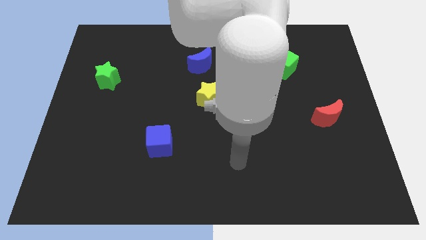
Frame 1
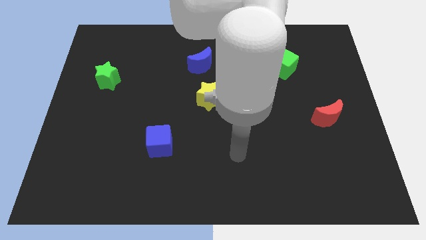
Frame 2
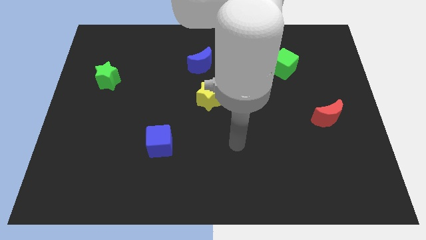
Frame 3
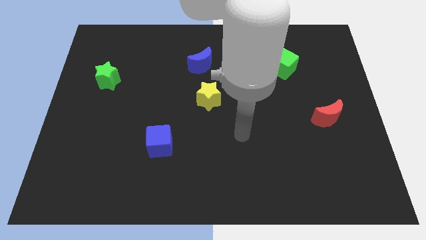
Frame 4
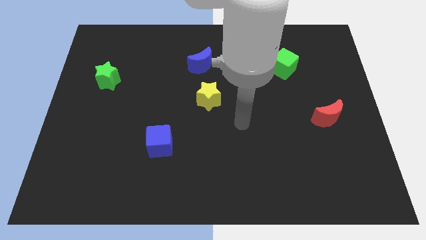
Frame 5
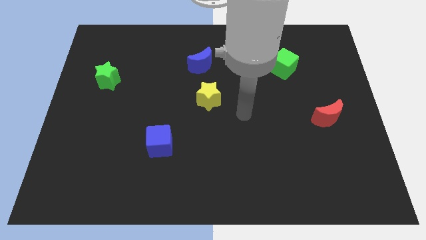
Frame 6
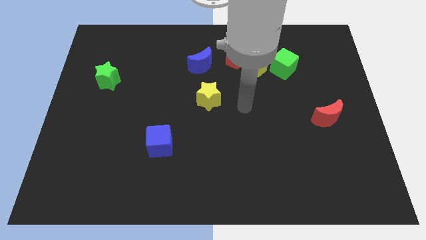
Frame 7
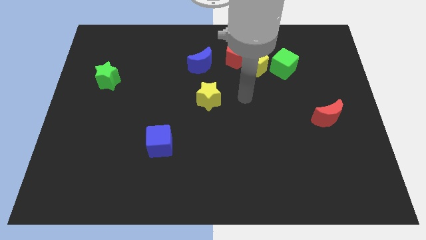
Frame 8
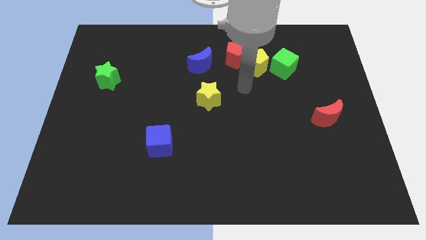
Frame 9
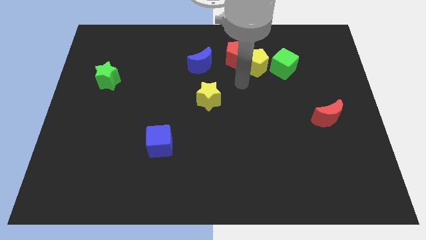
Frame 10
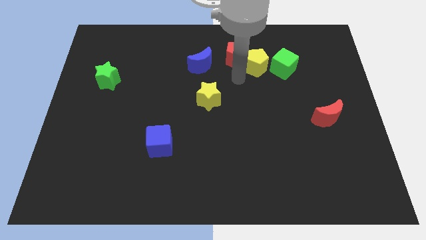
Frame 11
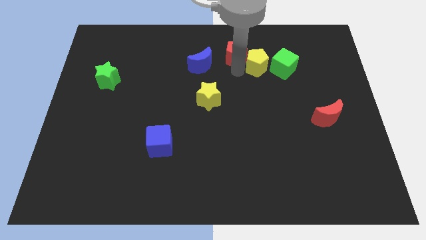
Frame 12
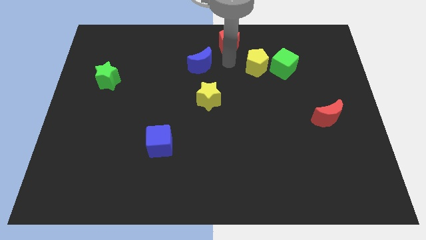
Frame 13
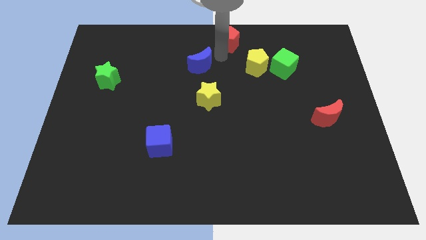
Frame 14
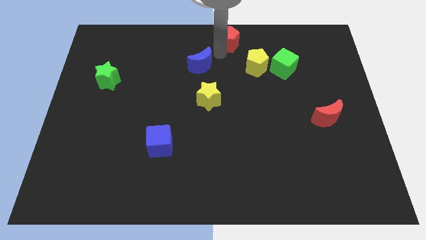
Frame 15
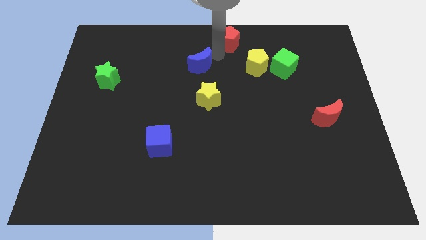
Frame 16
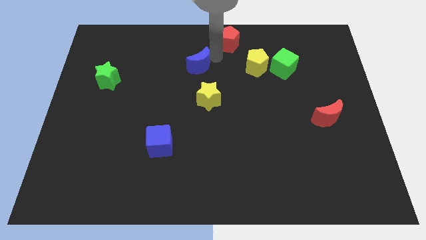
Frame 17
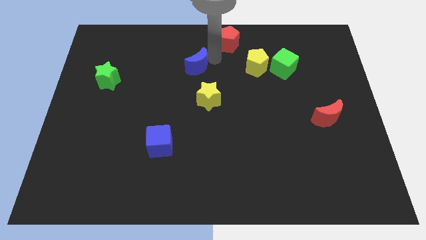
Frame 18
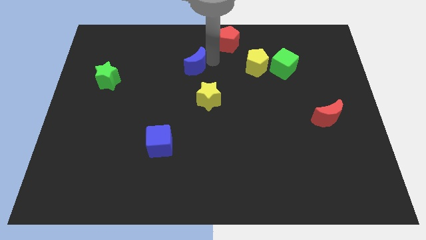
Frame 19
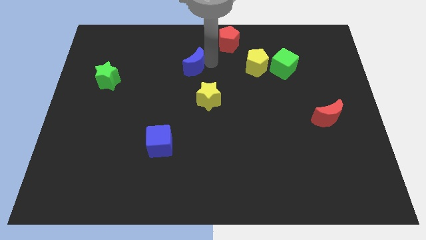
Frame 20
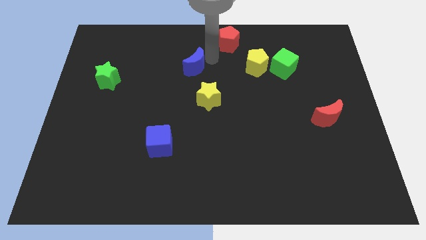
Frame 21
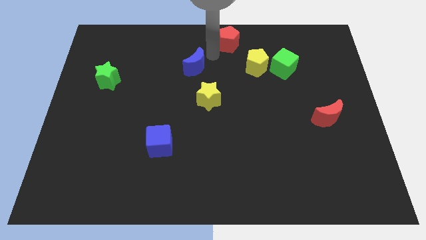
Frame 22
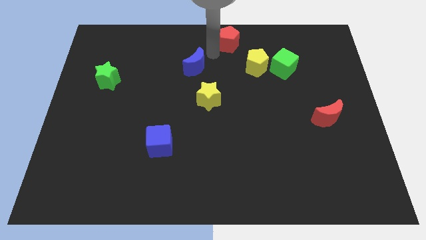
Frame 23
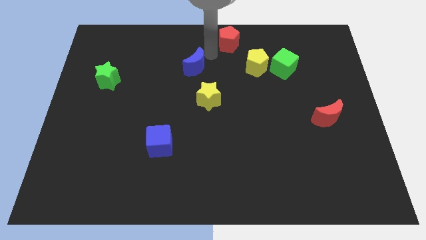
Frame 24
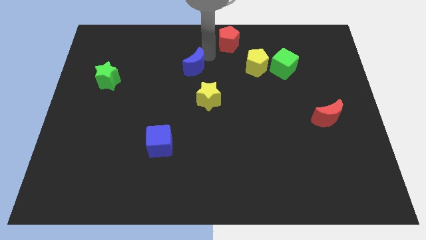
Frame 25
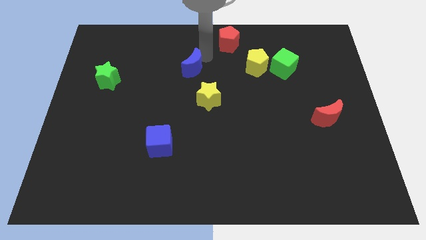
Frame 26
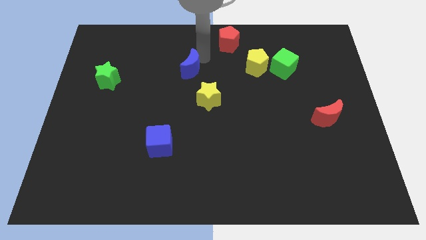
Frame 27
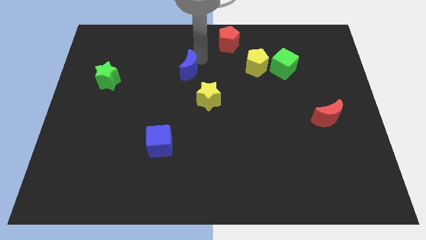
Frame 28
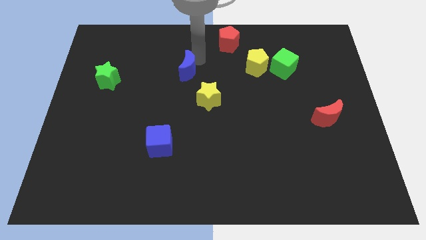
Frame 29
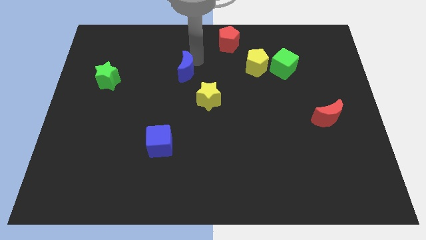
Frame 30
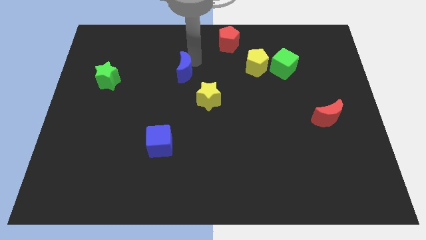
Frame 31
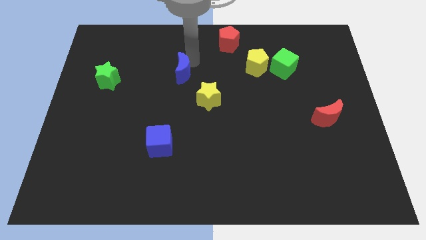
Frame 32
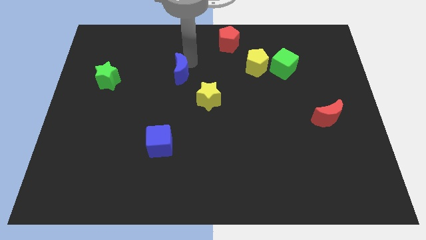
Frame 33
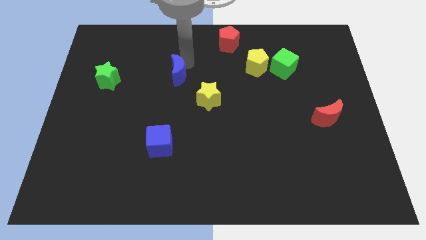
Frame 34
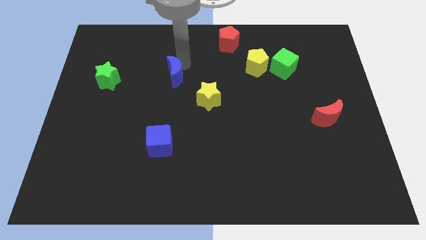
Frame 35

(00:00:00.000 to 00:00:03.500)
slide the blue moon downwards and then left a little bit

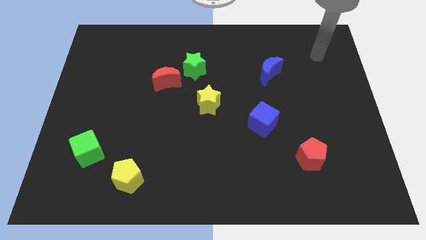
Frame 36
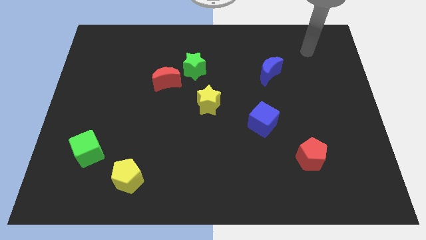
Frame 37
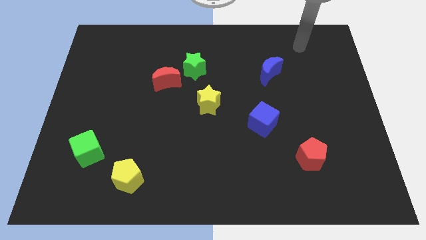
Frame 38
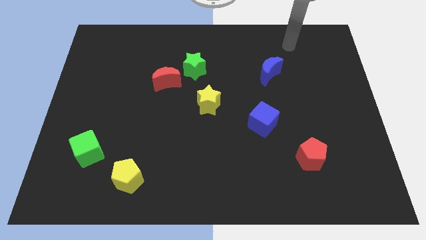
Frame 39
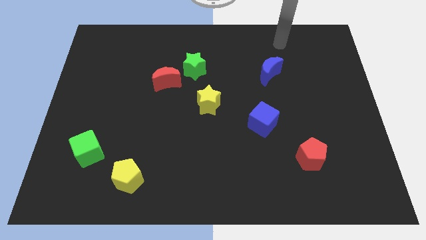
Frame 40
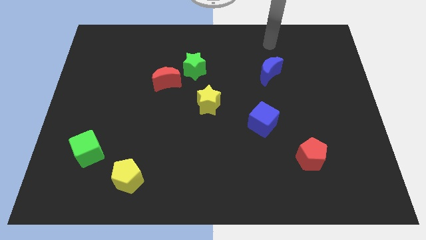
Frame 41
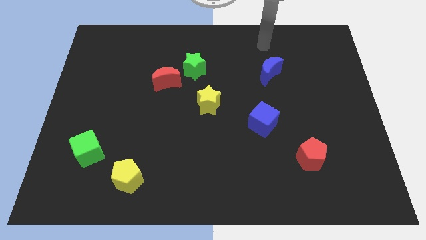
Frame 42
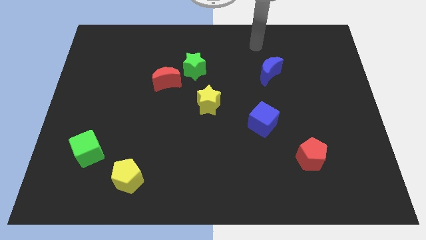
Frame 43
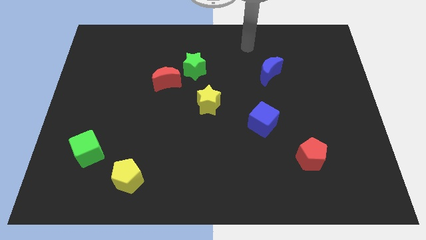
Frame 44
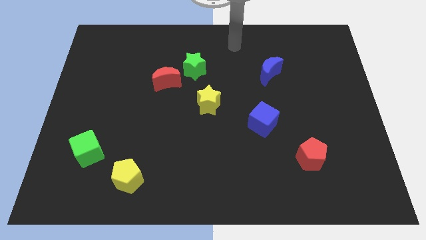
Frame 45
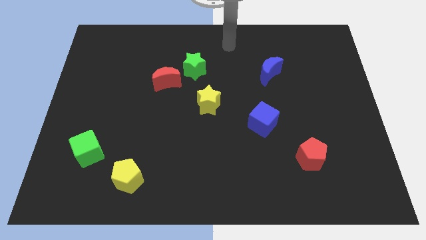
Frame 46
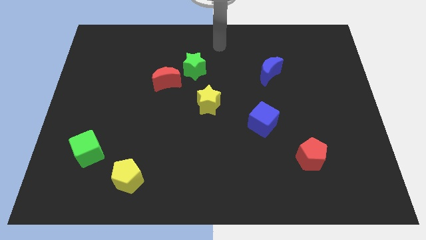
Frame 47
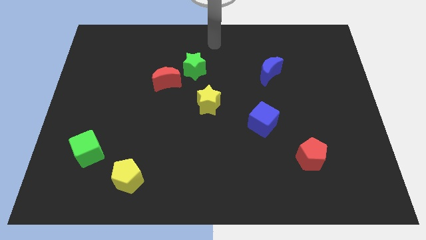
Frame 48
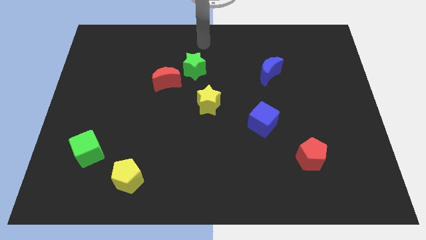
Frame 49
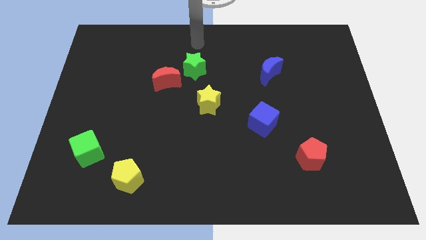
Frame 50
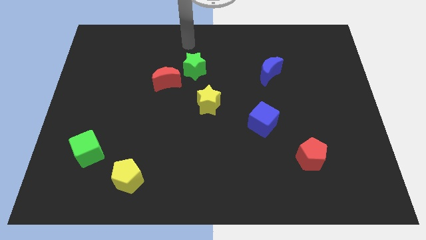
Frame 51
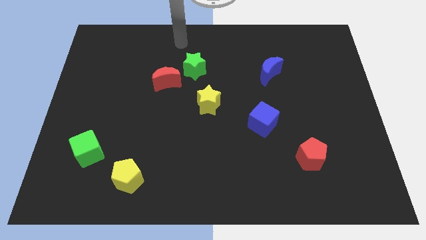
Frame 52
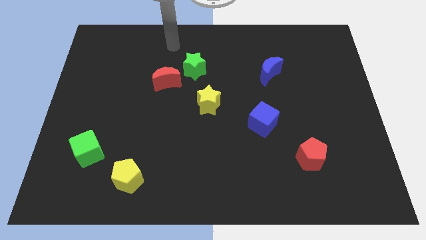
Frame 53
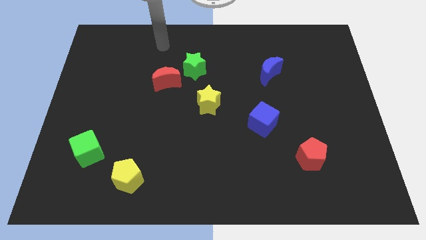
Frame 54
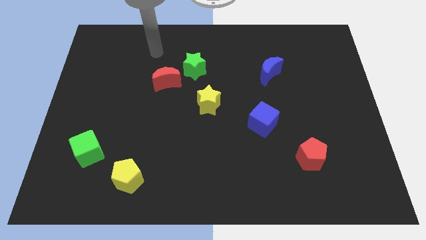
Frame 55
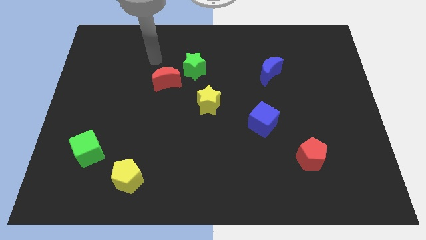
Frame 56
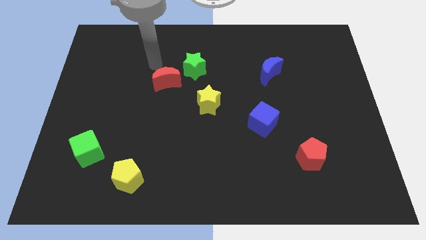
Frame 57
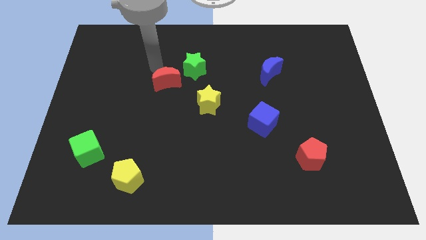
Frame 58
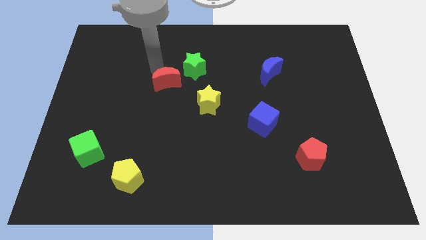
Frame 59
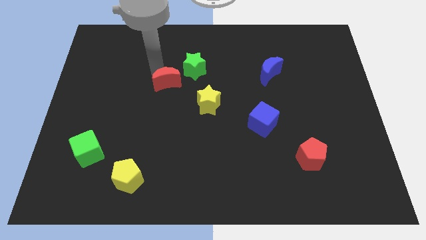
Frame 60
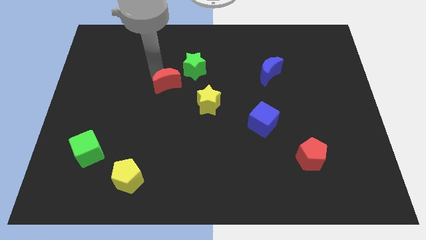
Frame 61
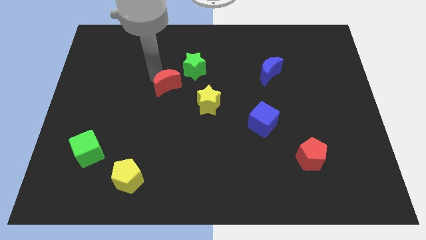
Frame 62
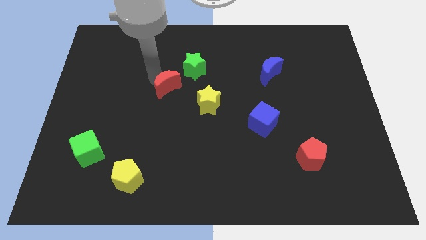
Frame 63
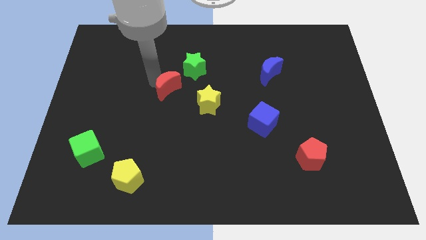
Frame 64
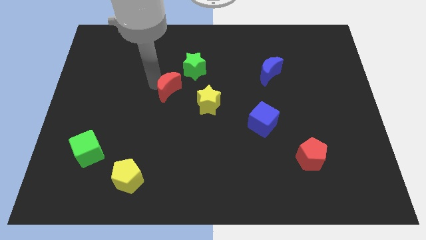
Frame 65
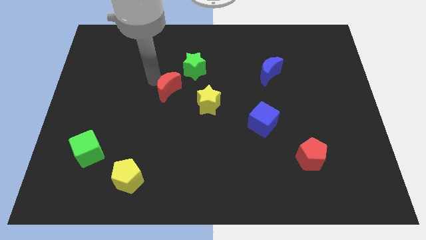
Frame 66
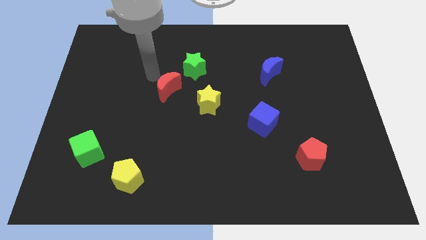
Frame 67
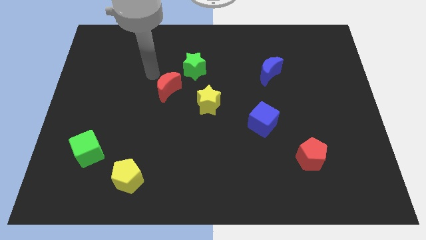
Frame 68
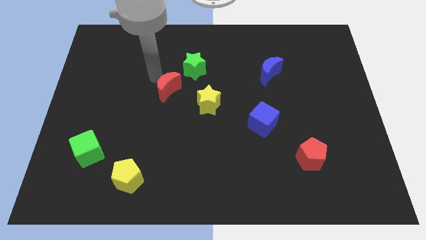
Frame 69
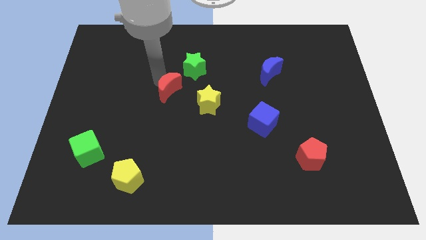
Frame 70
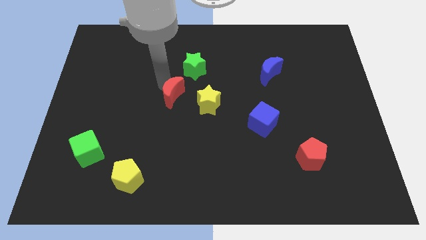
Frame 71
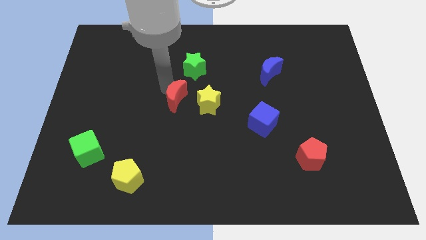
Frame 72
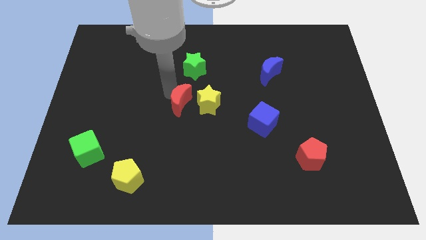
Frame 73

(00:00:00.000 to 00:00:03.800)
slightly push the red moon downwards and right
